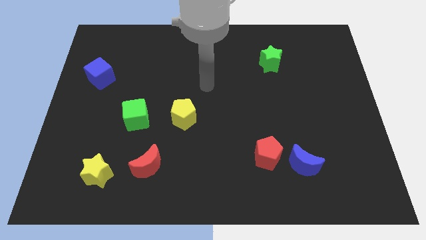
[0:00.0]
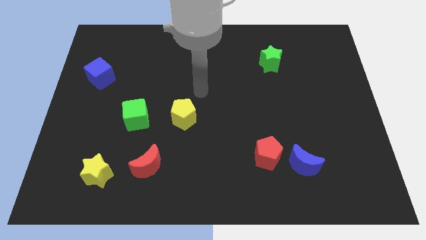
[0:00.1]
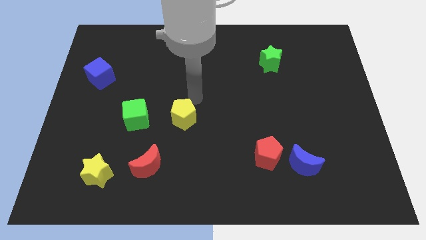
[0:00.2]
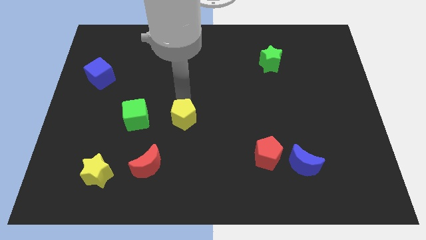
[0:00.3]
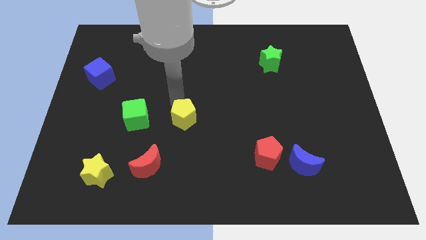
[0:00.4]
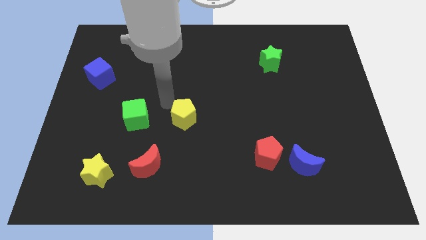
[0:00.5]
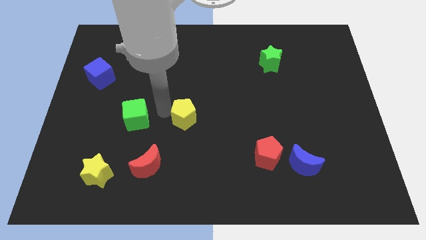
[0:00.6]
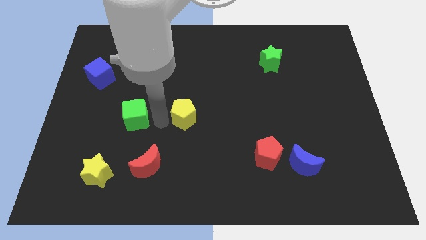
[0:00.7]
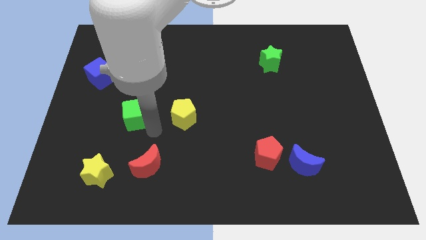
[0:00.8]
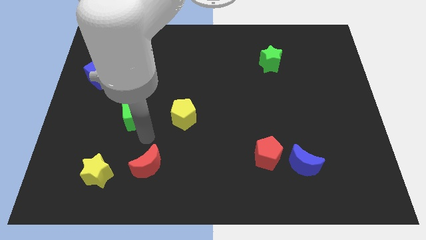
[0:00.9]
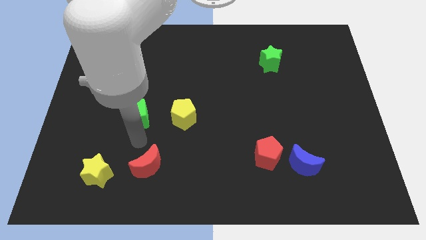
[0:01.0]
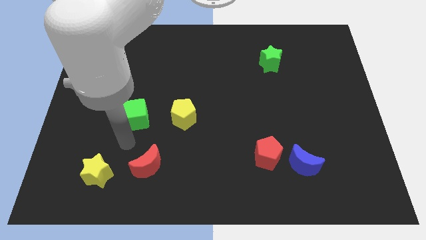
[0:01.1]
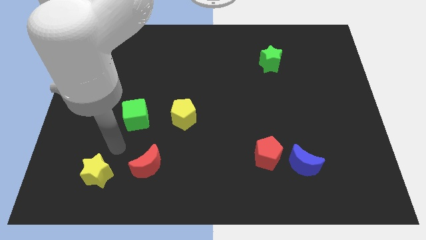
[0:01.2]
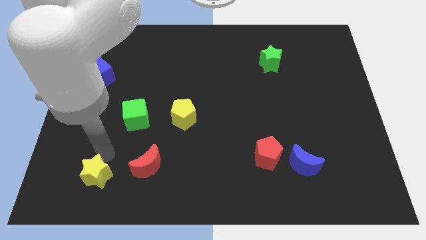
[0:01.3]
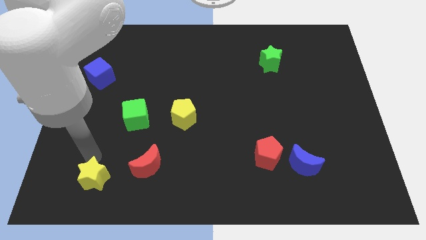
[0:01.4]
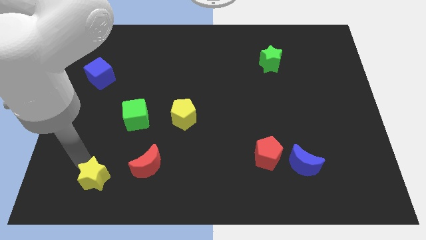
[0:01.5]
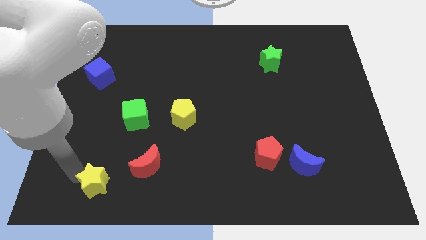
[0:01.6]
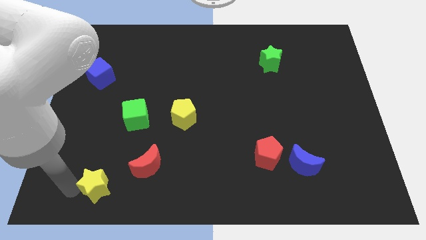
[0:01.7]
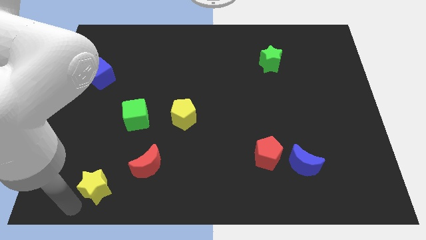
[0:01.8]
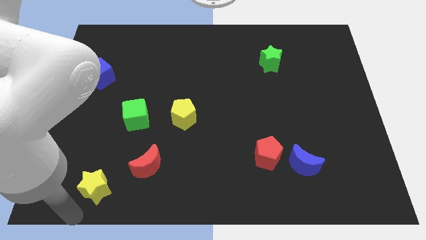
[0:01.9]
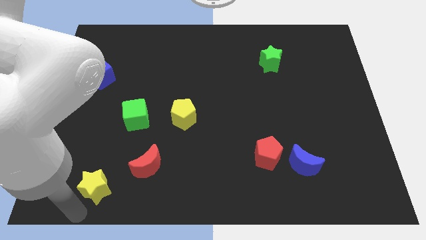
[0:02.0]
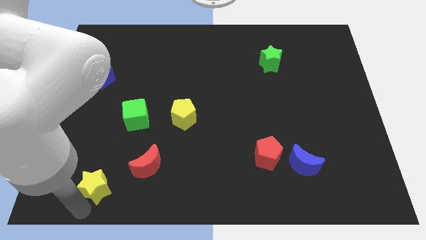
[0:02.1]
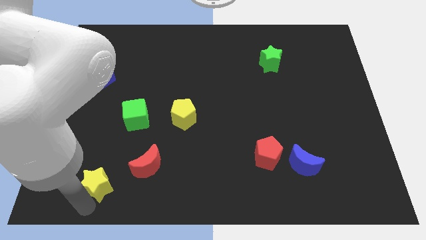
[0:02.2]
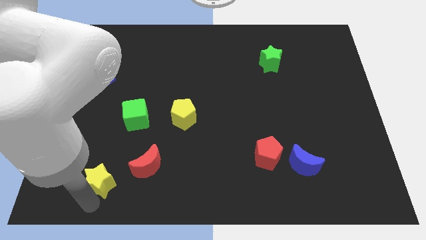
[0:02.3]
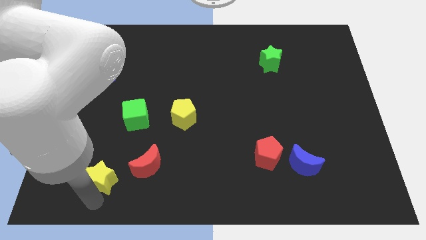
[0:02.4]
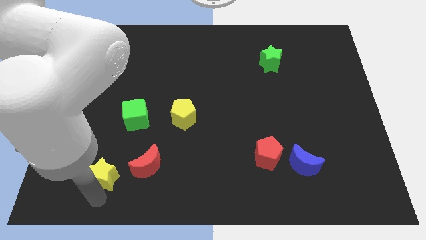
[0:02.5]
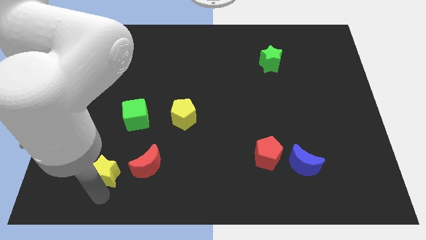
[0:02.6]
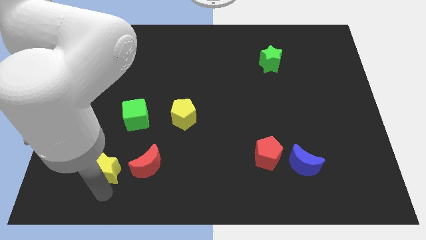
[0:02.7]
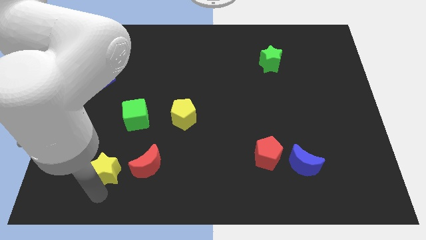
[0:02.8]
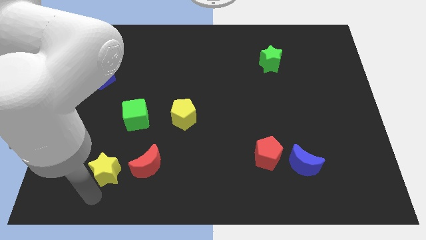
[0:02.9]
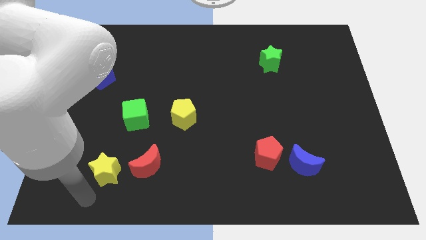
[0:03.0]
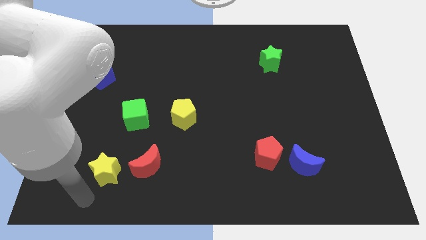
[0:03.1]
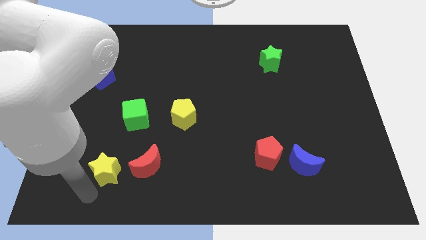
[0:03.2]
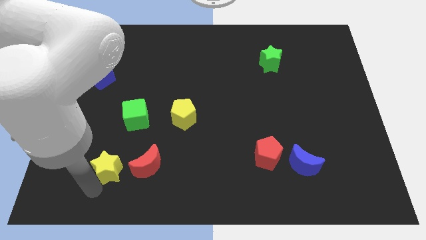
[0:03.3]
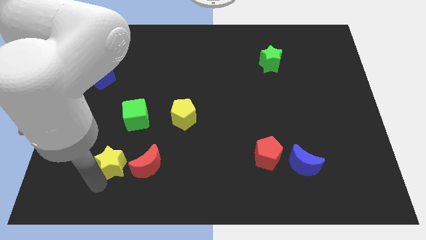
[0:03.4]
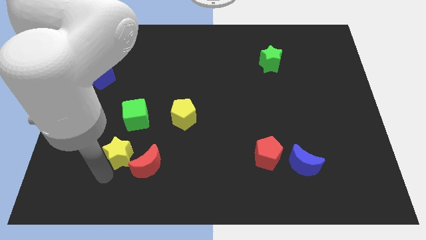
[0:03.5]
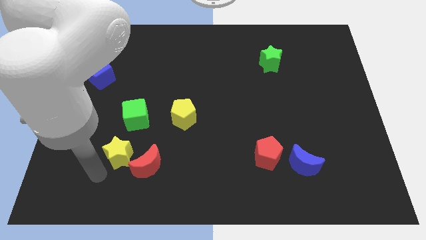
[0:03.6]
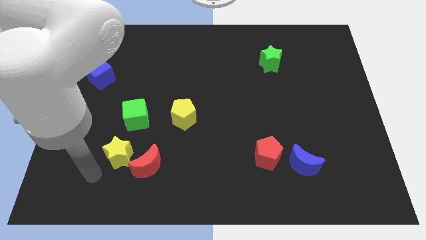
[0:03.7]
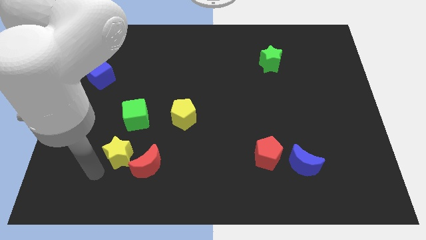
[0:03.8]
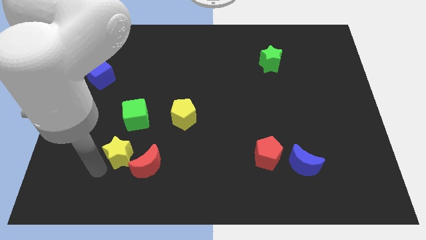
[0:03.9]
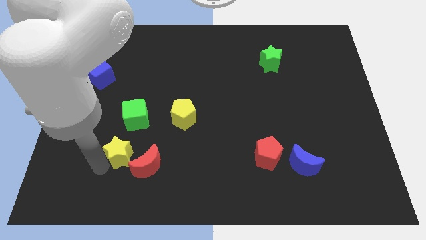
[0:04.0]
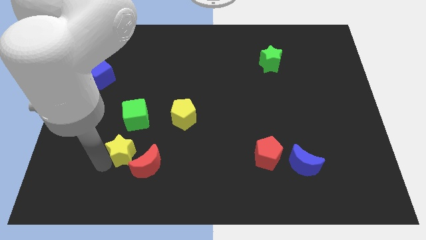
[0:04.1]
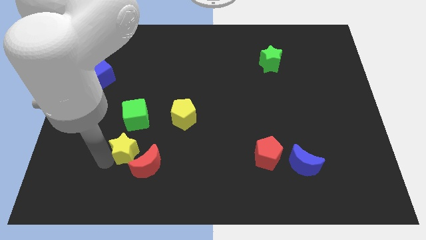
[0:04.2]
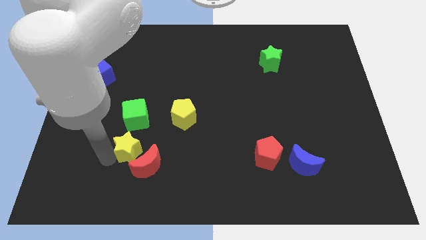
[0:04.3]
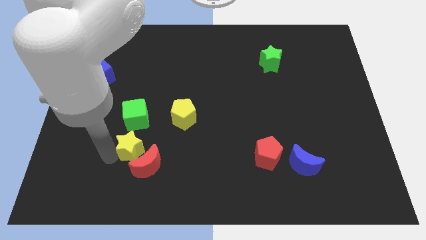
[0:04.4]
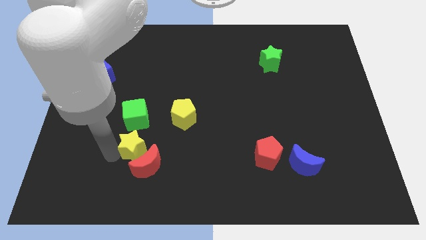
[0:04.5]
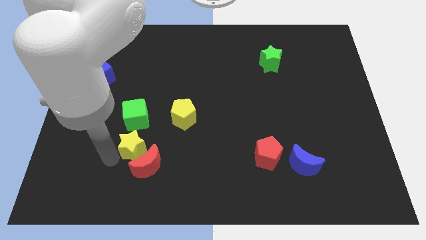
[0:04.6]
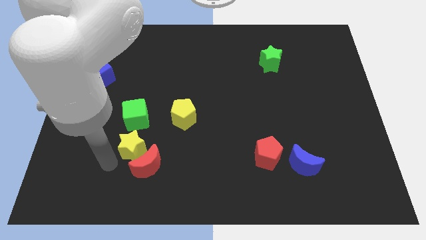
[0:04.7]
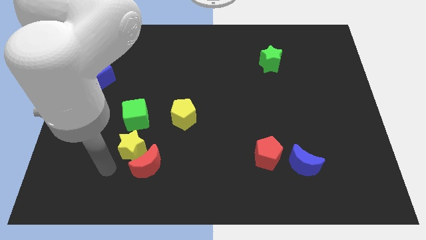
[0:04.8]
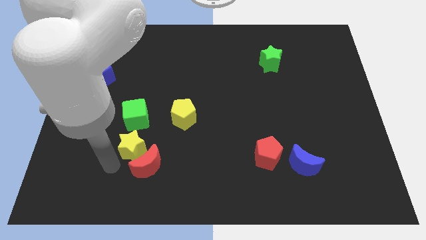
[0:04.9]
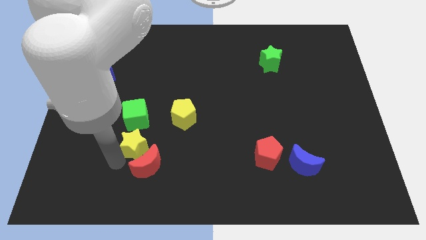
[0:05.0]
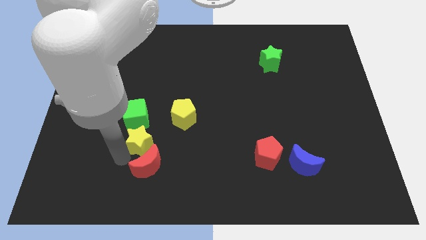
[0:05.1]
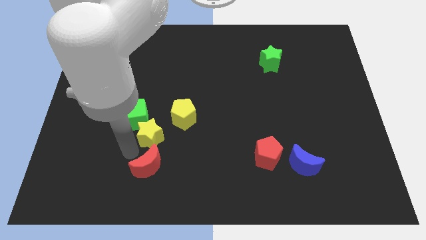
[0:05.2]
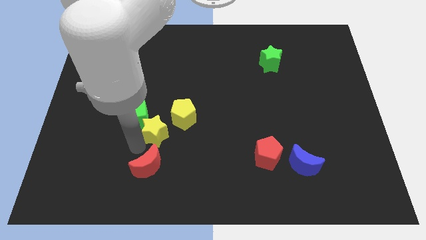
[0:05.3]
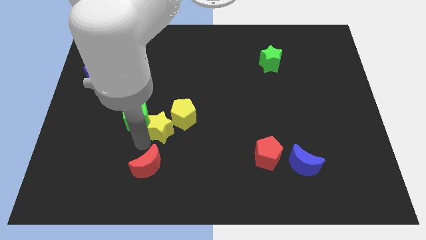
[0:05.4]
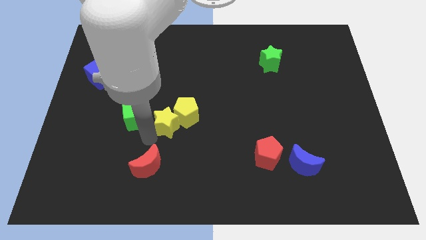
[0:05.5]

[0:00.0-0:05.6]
put the yellow star close to the yellow pentagon

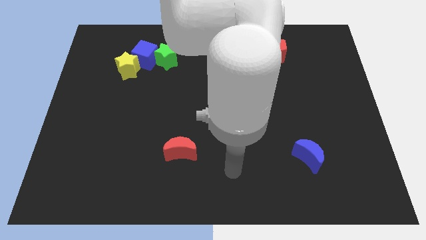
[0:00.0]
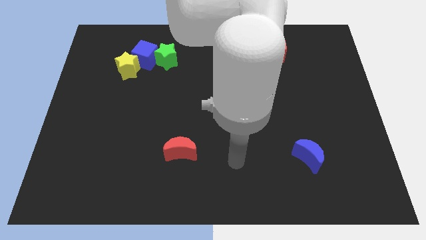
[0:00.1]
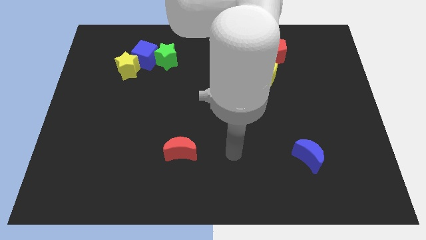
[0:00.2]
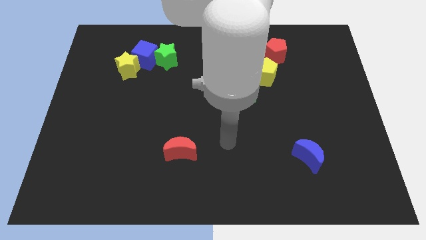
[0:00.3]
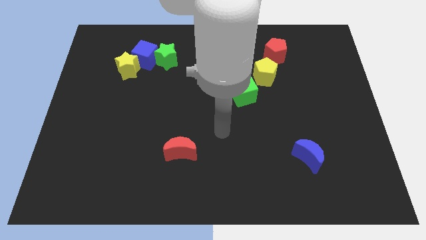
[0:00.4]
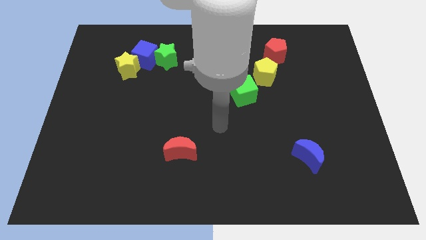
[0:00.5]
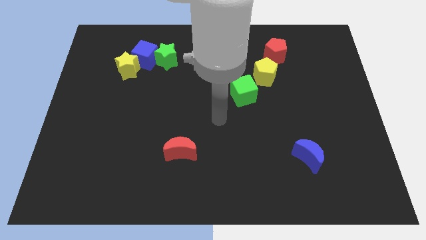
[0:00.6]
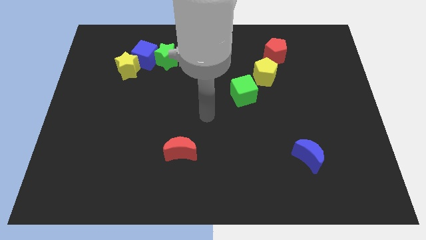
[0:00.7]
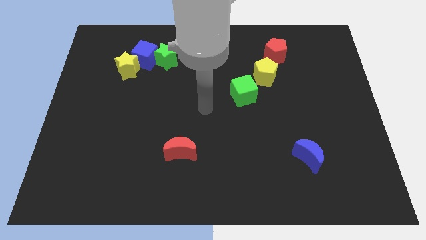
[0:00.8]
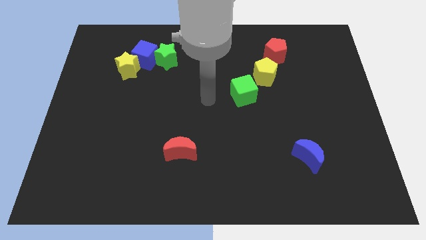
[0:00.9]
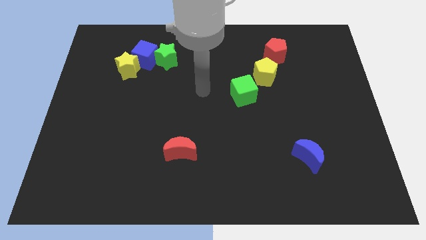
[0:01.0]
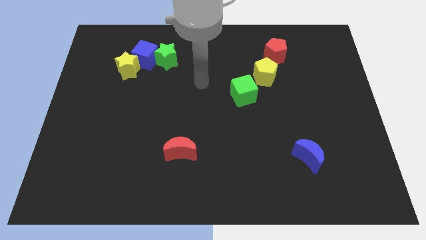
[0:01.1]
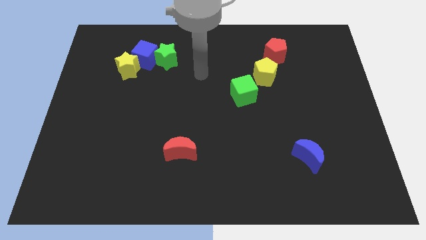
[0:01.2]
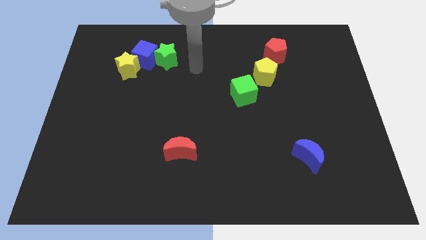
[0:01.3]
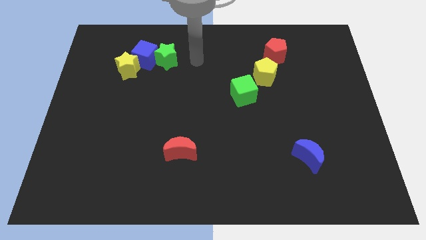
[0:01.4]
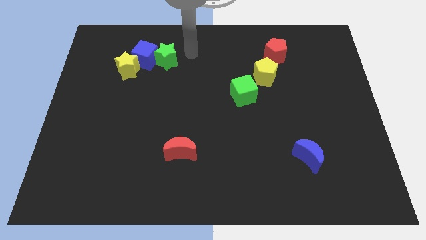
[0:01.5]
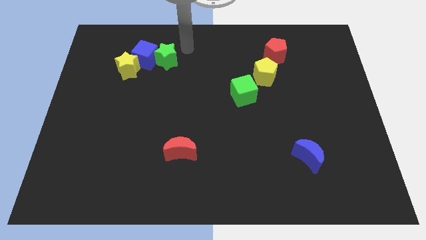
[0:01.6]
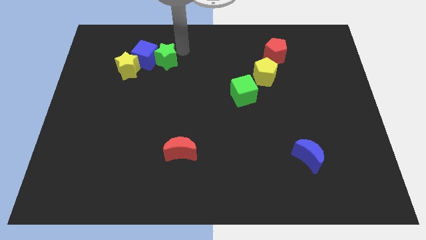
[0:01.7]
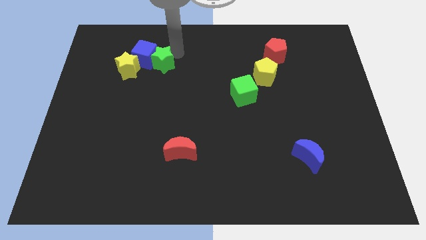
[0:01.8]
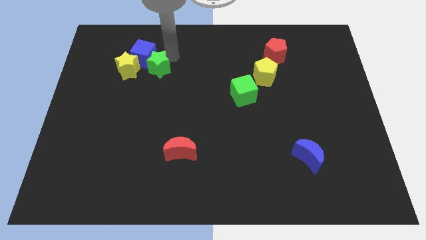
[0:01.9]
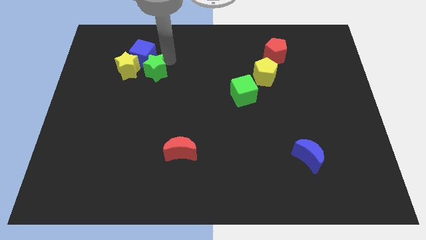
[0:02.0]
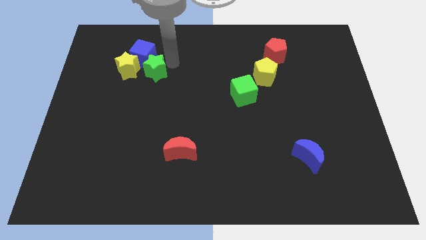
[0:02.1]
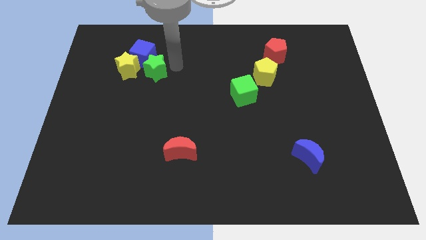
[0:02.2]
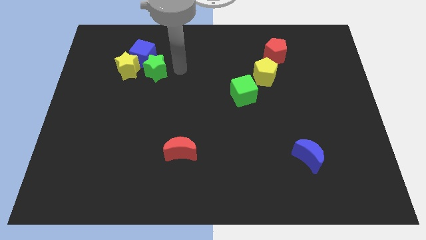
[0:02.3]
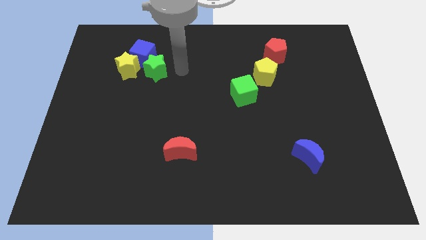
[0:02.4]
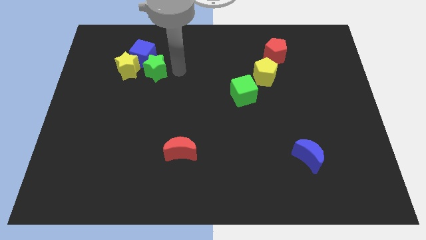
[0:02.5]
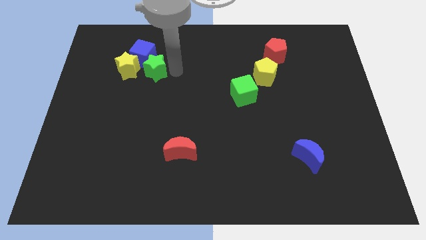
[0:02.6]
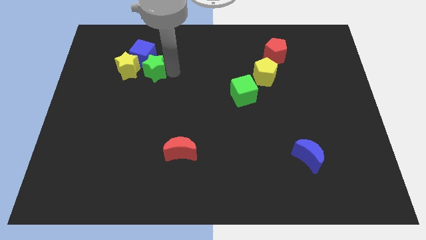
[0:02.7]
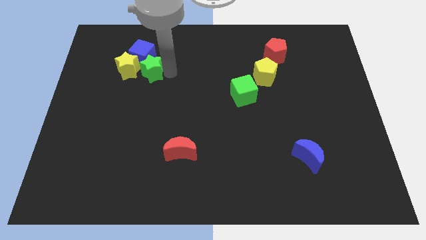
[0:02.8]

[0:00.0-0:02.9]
put the green star towards the yellow star
